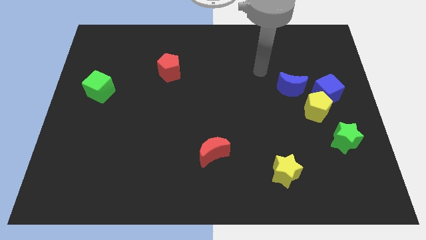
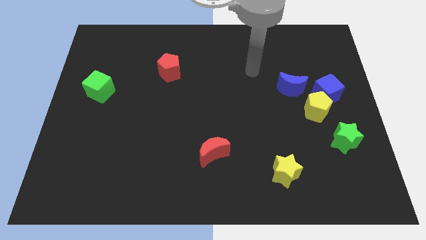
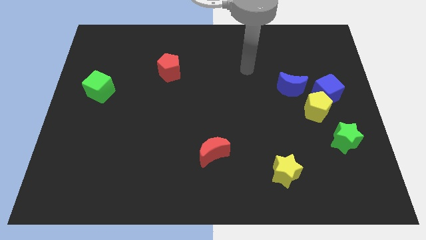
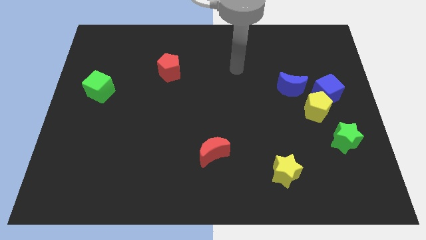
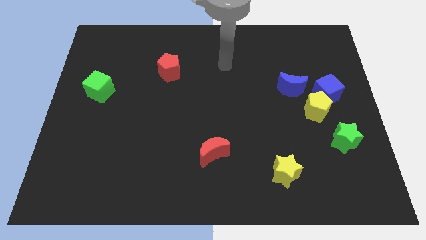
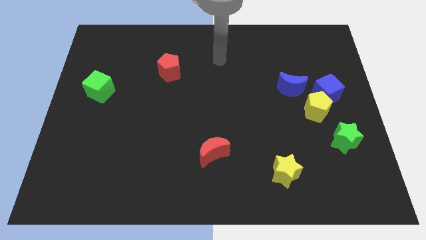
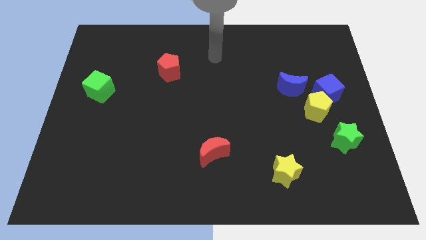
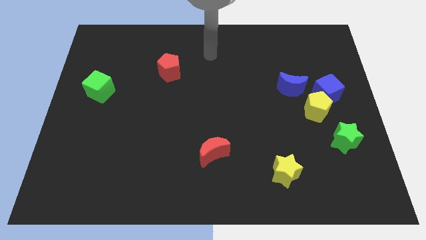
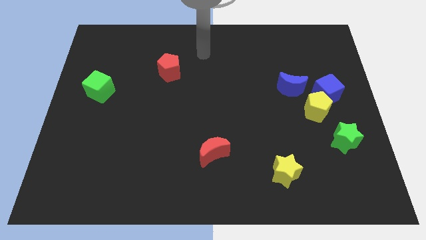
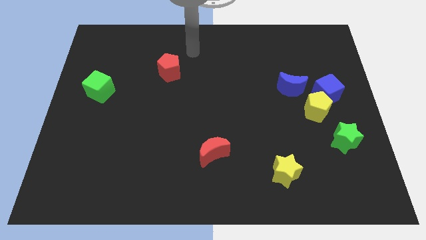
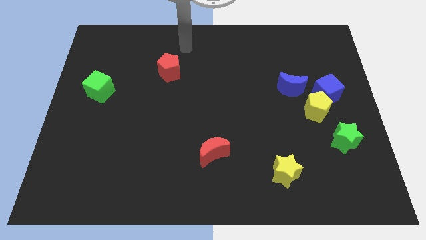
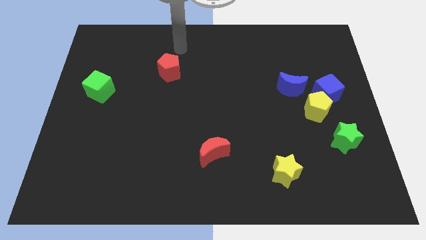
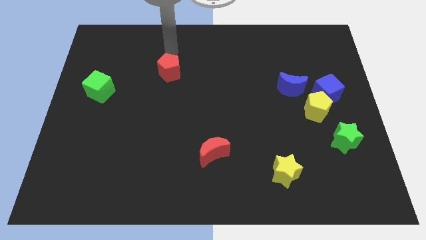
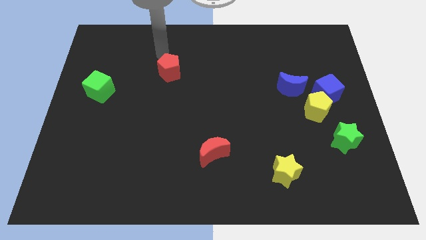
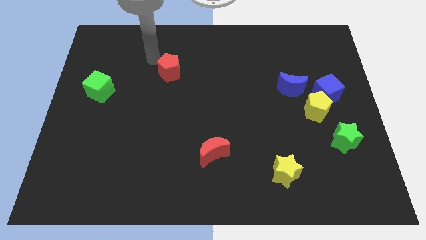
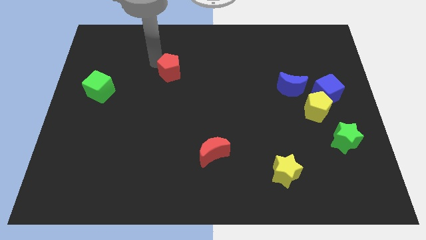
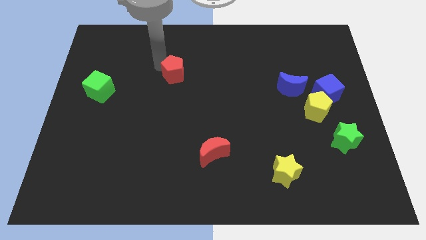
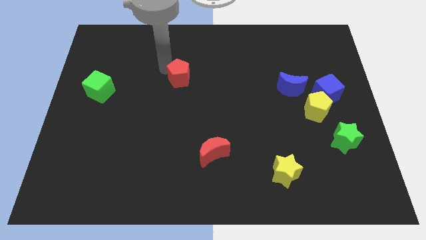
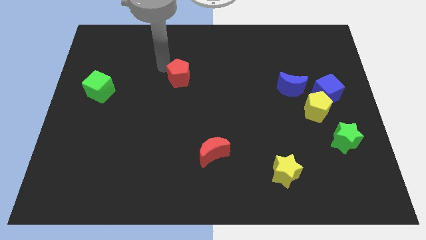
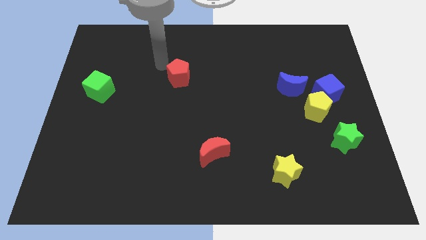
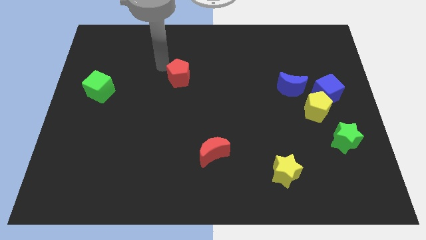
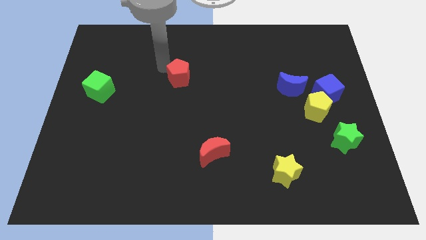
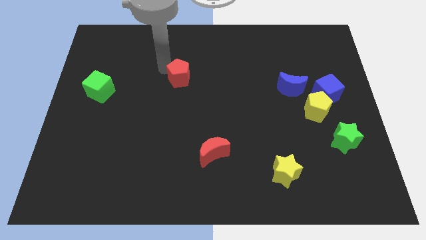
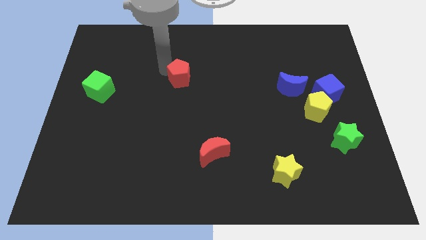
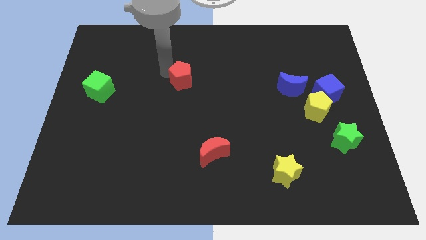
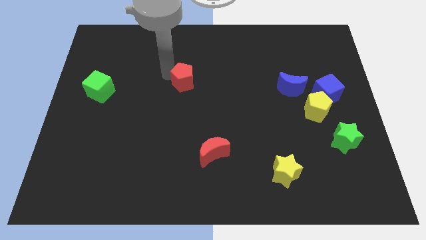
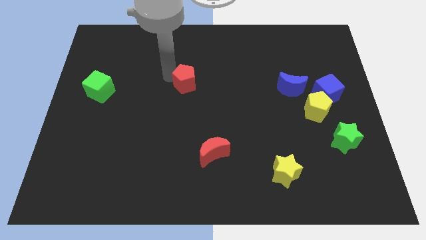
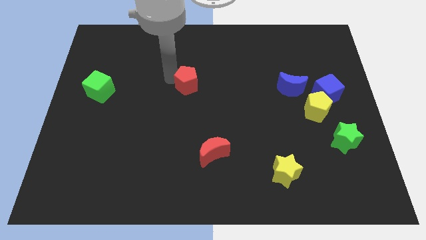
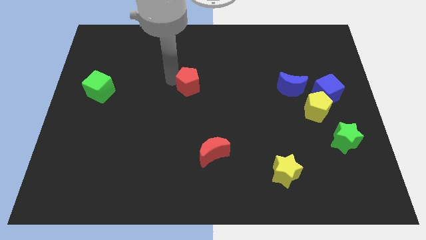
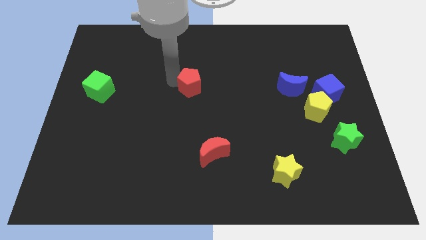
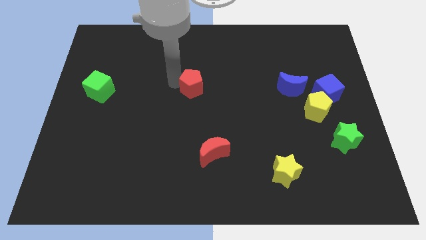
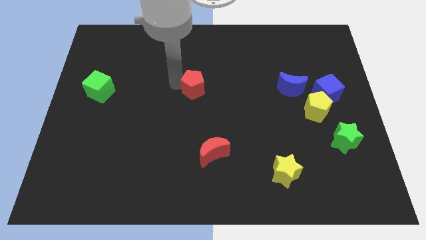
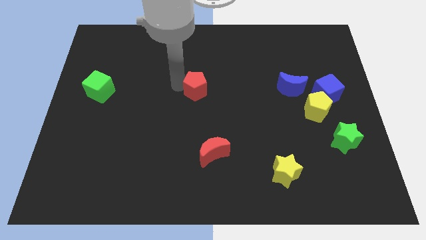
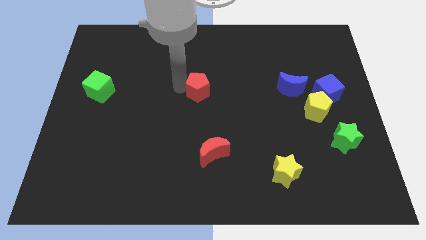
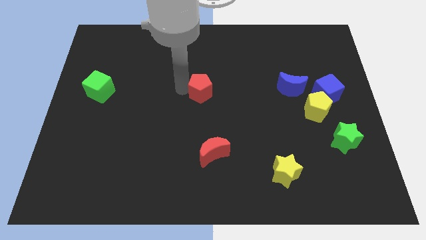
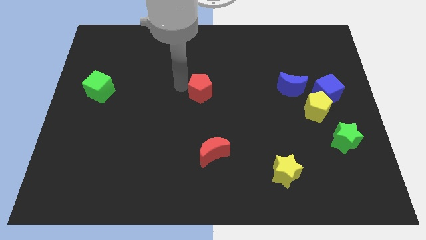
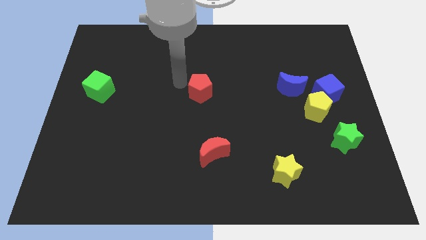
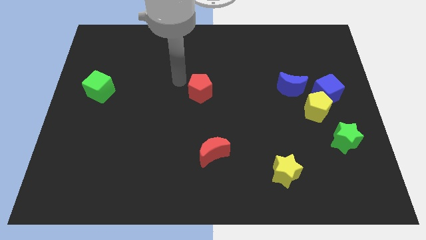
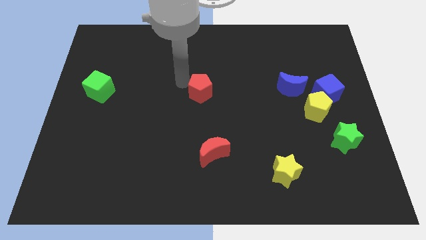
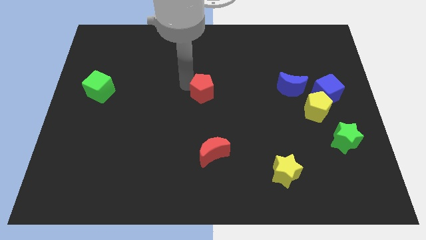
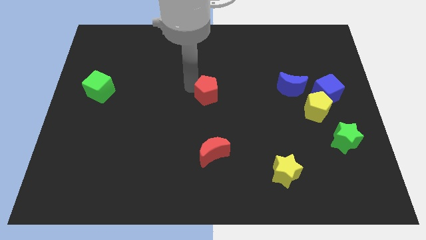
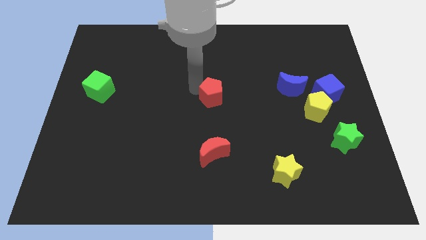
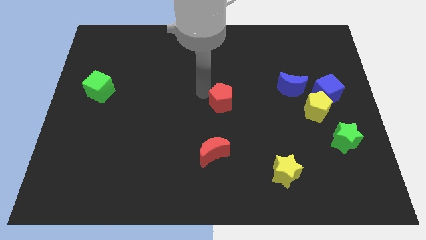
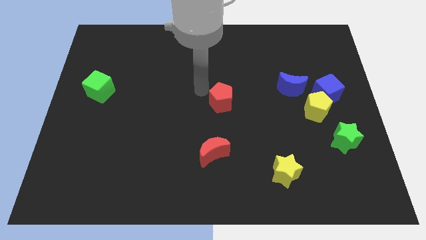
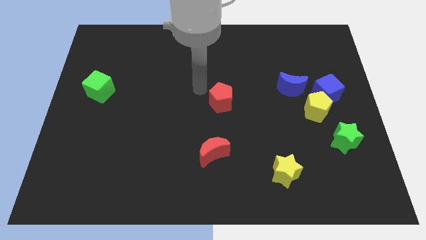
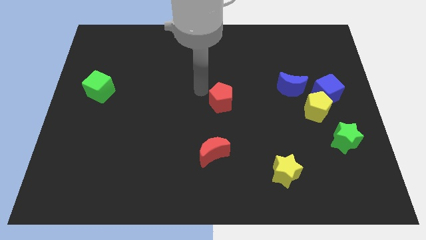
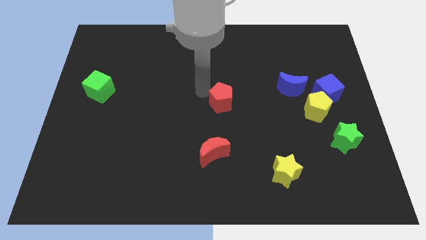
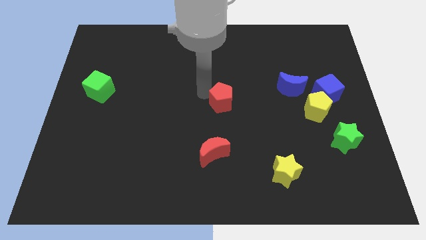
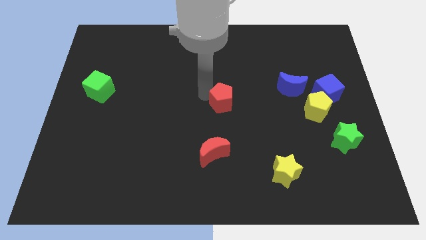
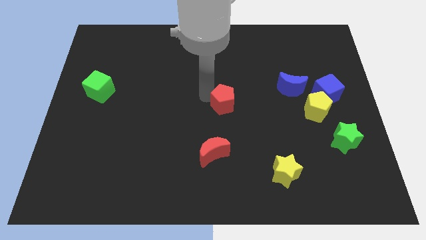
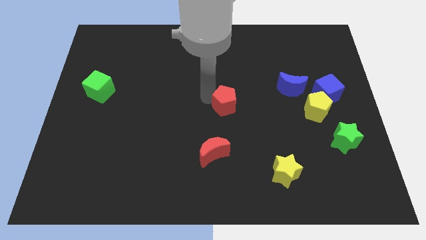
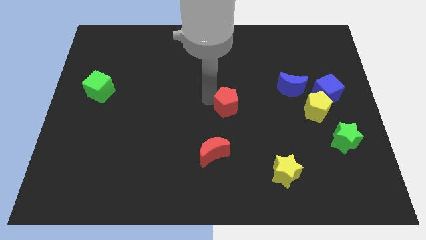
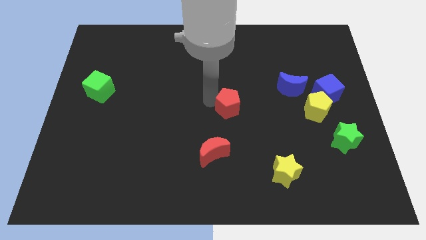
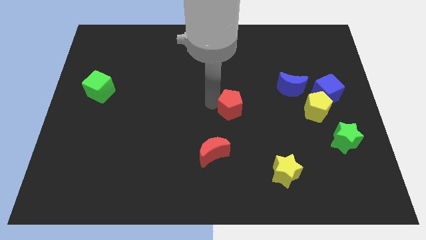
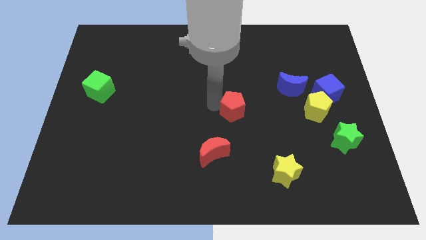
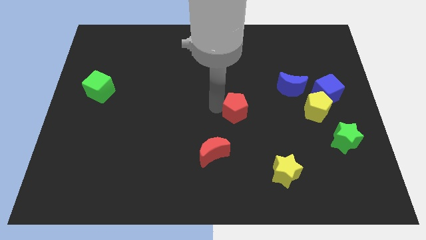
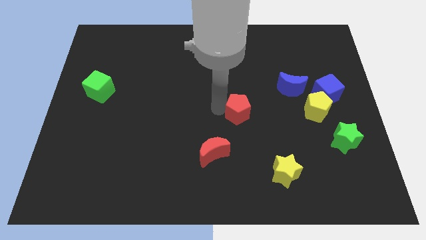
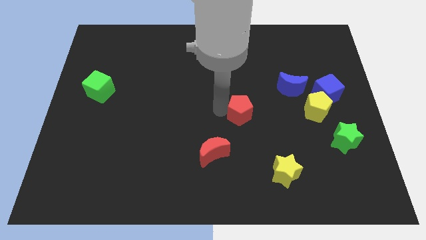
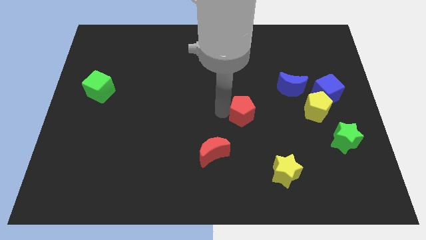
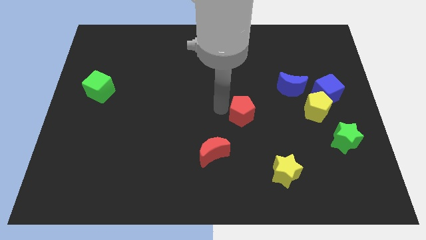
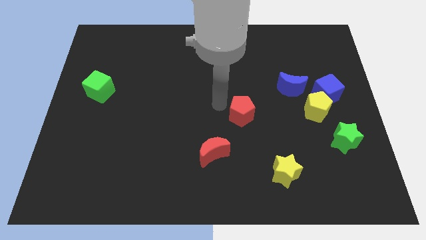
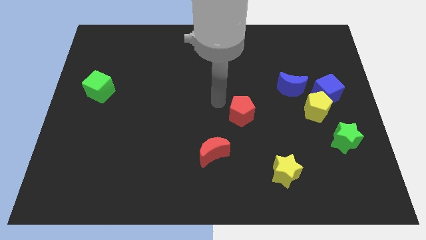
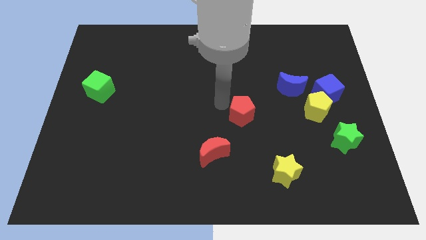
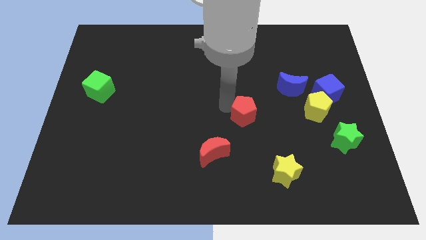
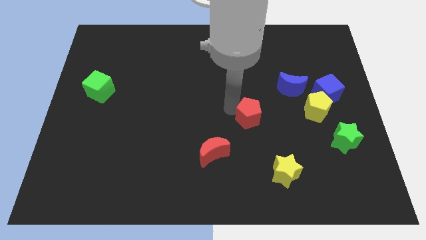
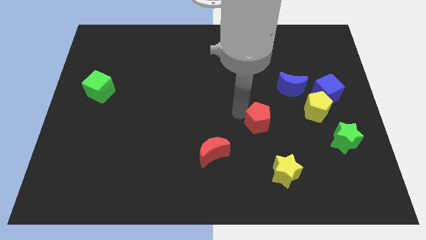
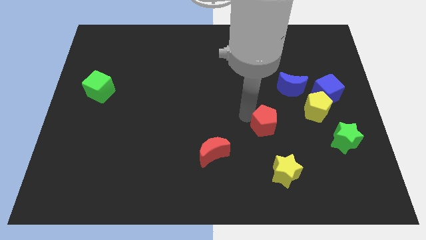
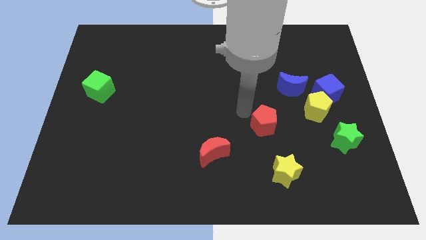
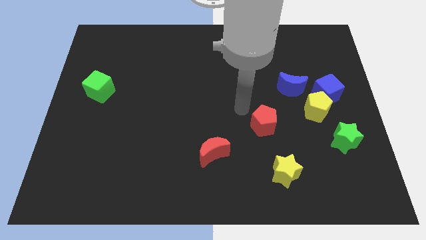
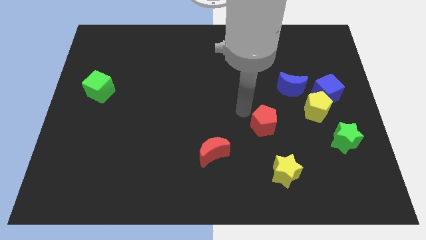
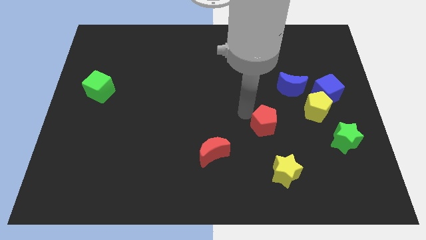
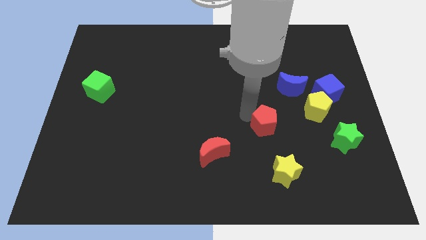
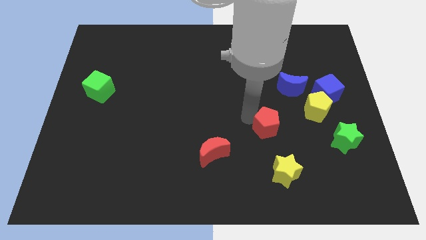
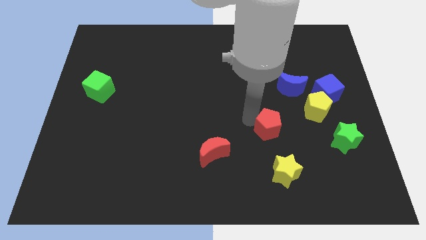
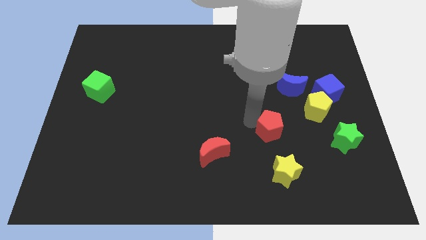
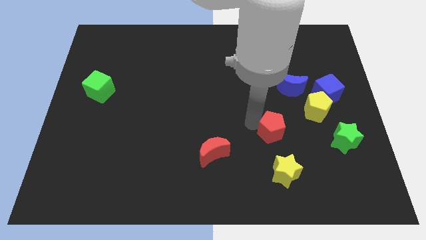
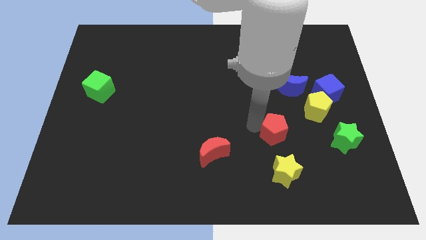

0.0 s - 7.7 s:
put the red pentagon left of the green star
